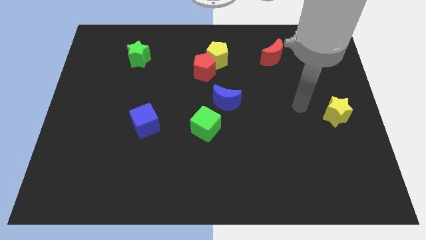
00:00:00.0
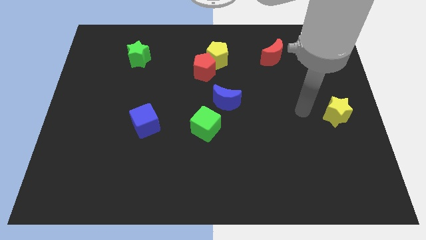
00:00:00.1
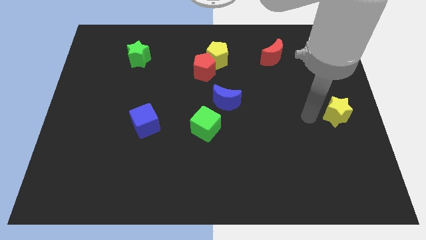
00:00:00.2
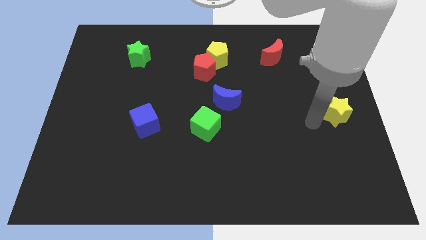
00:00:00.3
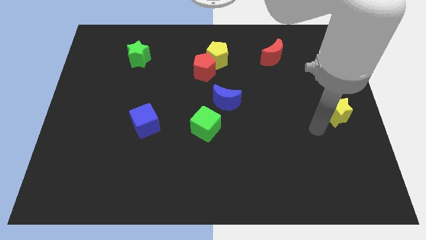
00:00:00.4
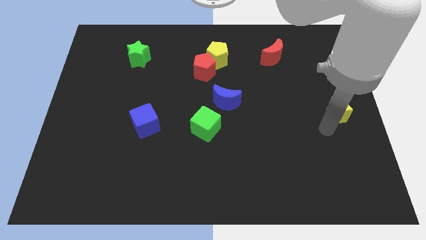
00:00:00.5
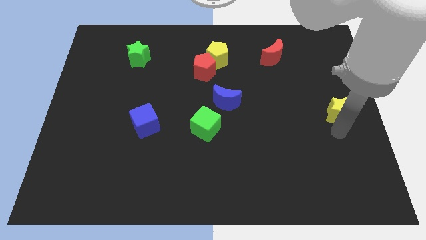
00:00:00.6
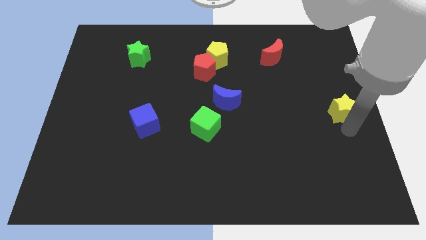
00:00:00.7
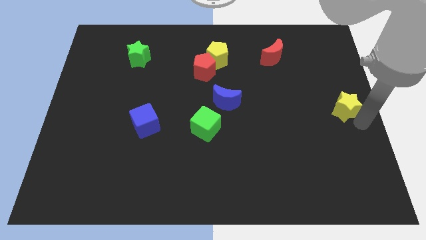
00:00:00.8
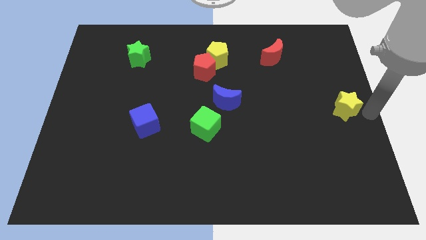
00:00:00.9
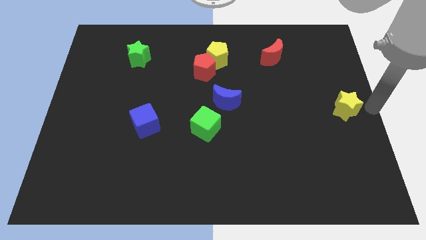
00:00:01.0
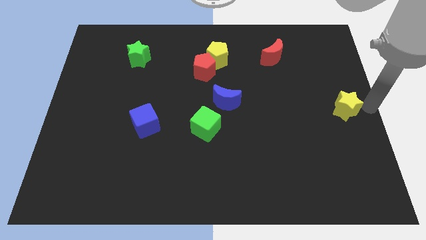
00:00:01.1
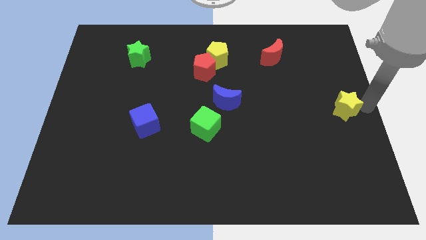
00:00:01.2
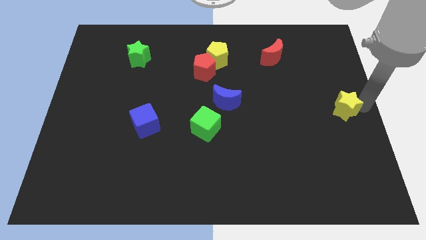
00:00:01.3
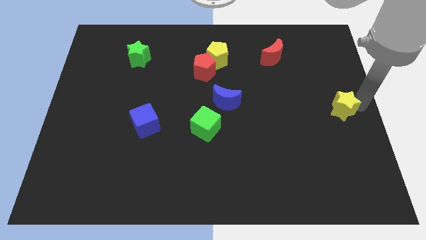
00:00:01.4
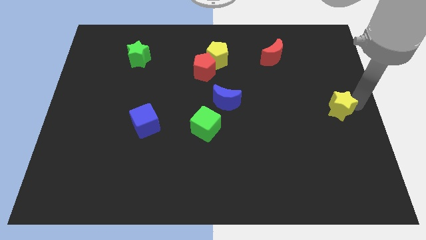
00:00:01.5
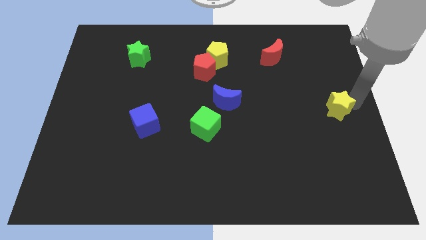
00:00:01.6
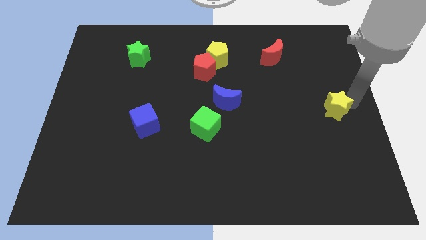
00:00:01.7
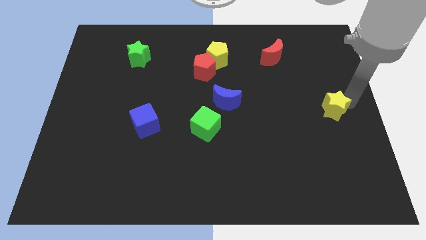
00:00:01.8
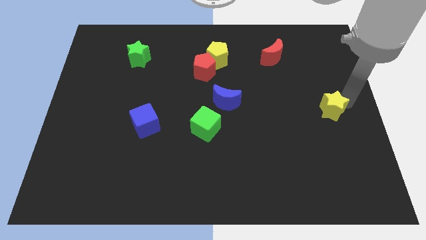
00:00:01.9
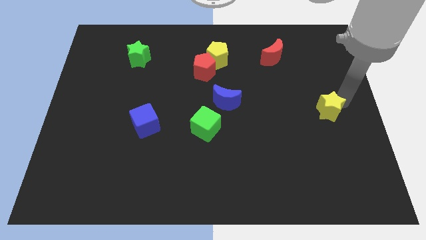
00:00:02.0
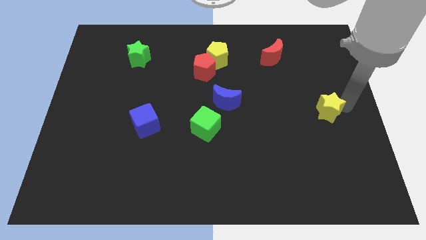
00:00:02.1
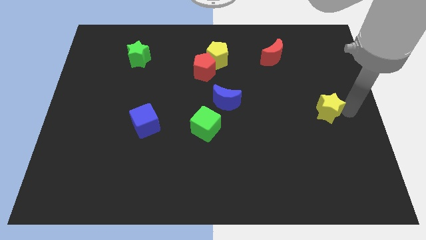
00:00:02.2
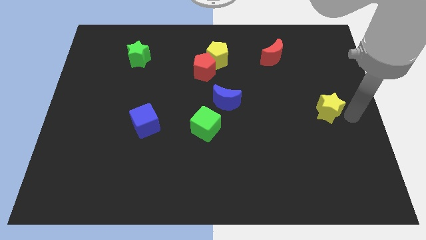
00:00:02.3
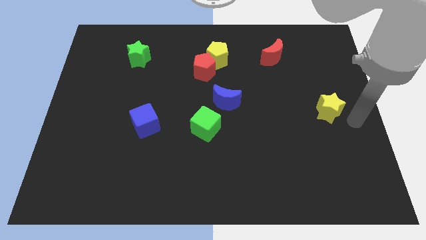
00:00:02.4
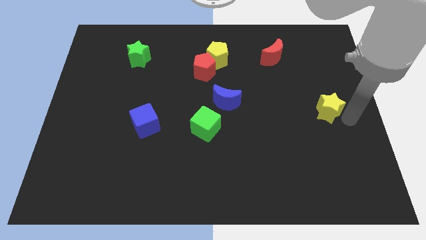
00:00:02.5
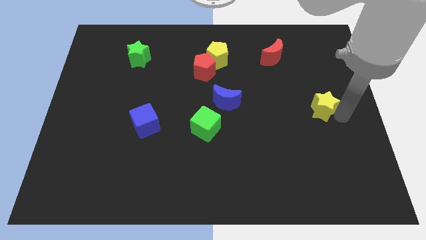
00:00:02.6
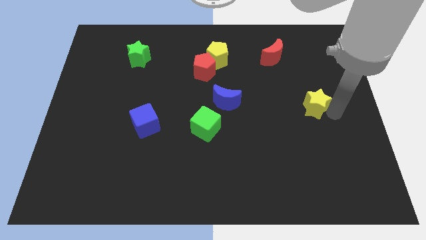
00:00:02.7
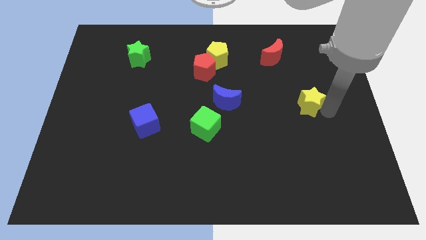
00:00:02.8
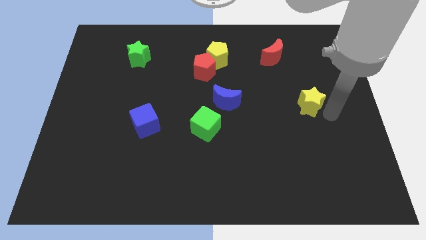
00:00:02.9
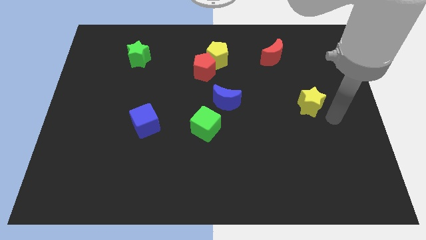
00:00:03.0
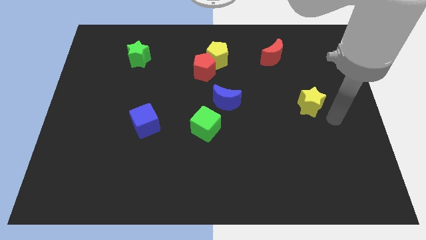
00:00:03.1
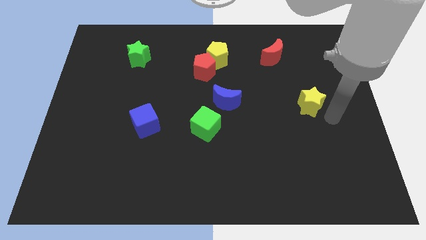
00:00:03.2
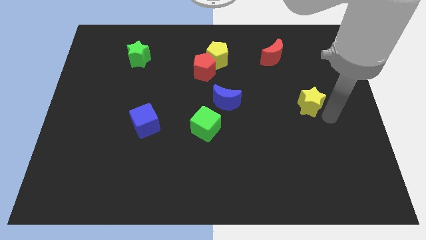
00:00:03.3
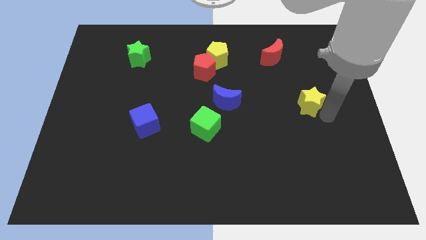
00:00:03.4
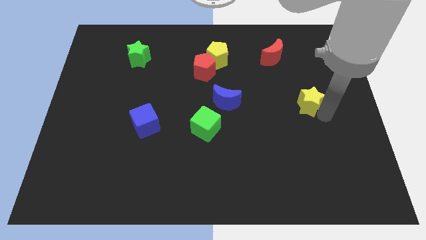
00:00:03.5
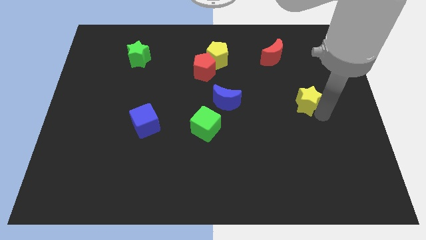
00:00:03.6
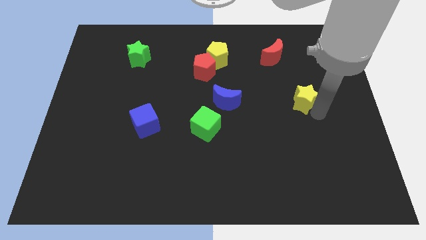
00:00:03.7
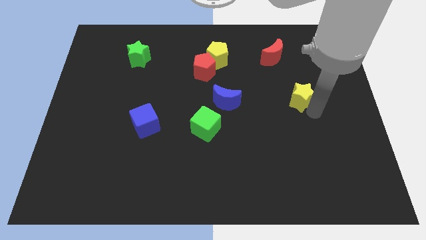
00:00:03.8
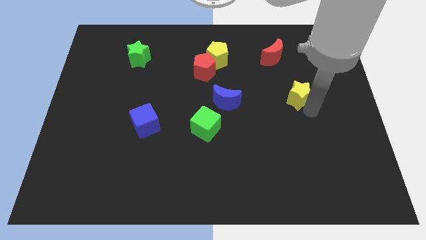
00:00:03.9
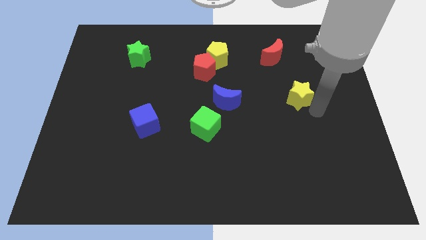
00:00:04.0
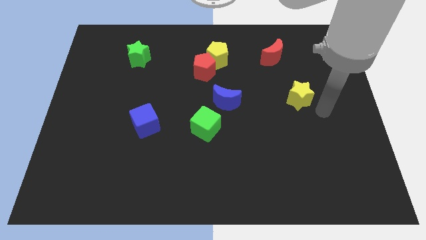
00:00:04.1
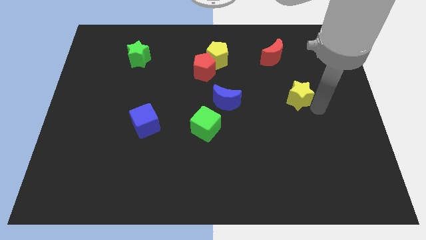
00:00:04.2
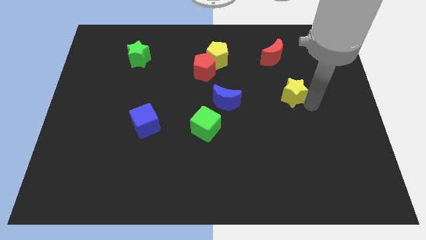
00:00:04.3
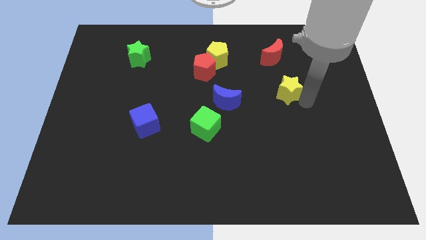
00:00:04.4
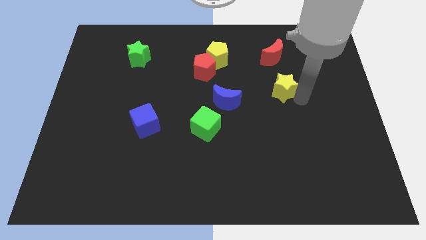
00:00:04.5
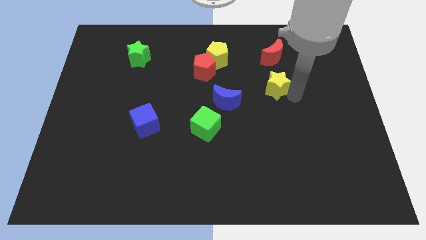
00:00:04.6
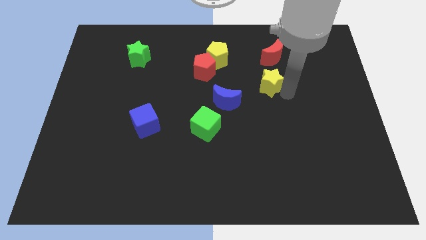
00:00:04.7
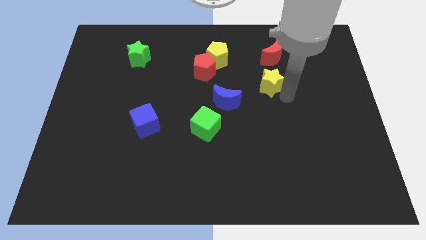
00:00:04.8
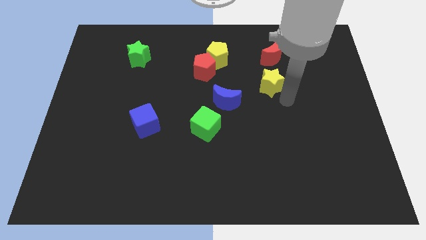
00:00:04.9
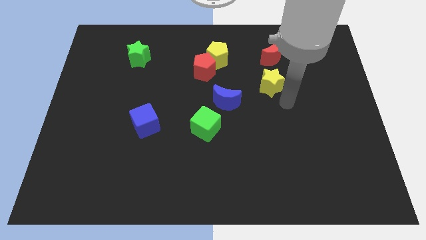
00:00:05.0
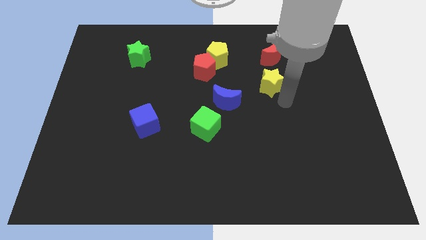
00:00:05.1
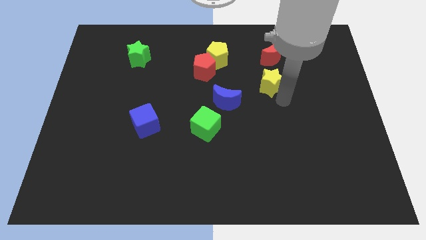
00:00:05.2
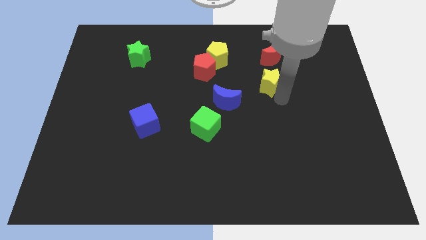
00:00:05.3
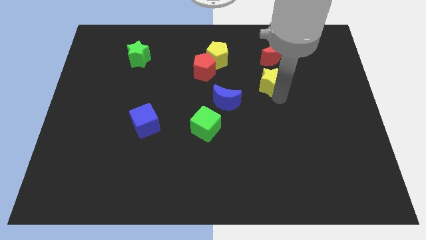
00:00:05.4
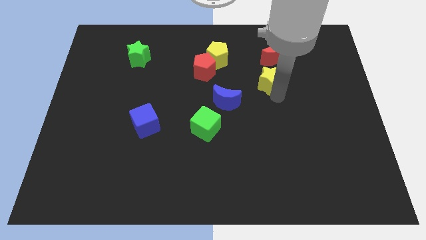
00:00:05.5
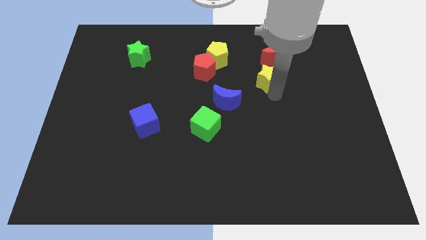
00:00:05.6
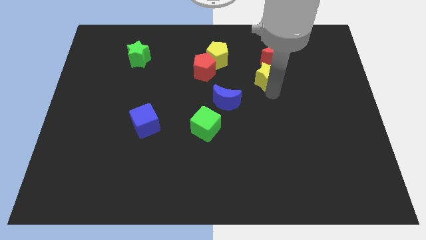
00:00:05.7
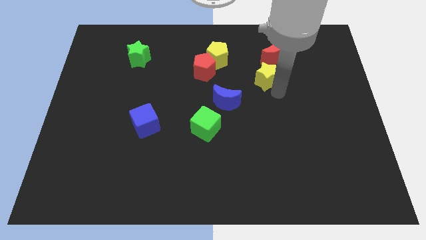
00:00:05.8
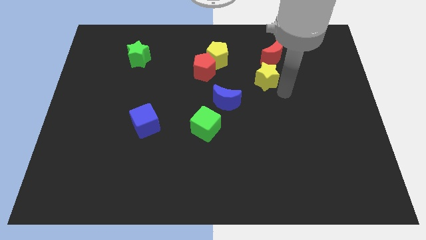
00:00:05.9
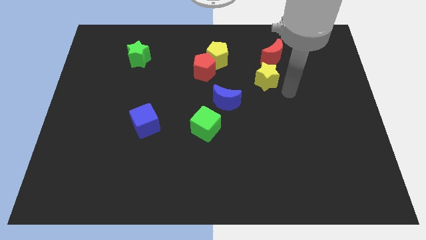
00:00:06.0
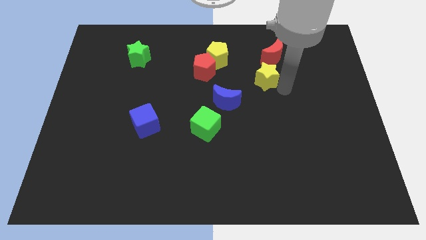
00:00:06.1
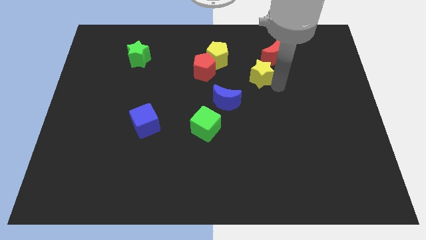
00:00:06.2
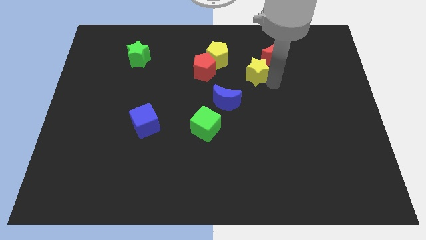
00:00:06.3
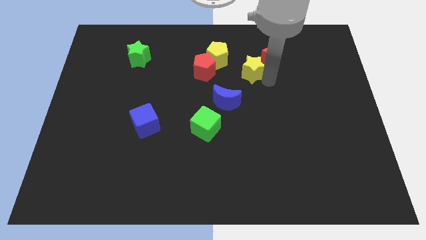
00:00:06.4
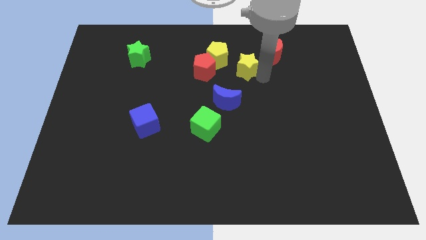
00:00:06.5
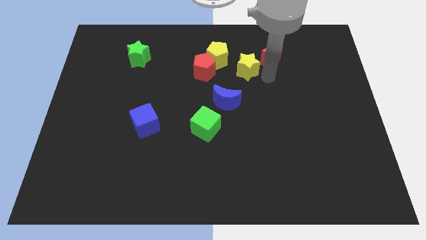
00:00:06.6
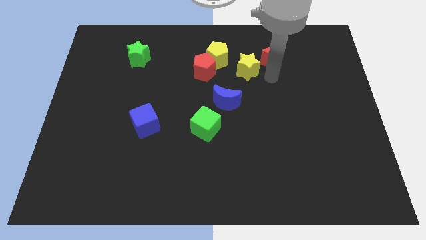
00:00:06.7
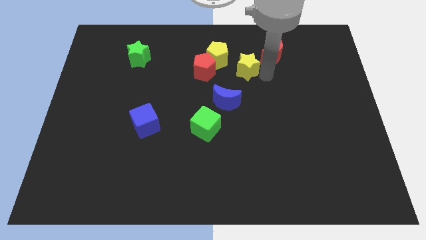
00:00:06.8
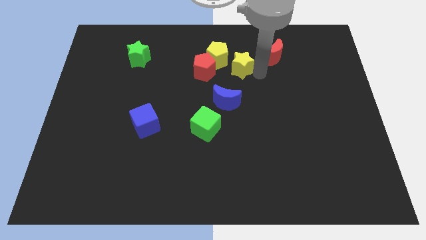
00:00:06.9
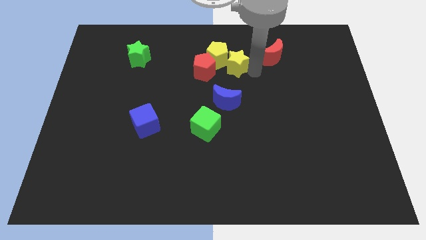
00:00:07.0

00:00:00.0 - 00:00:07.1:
move the yellow star towards the yellow pentagon
